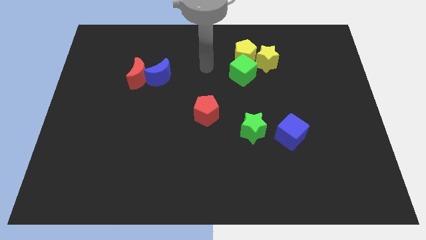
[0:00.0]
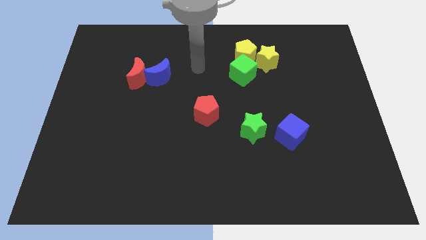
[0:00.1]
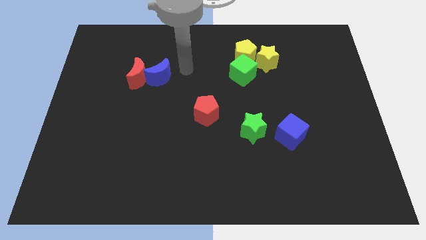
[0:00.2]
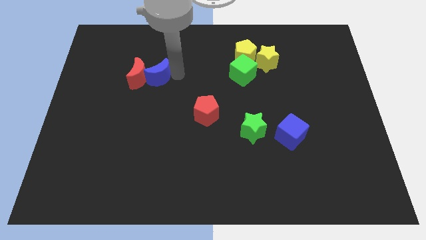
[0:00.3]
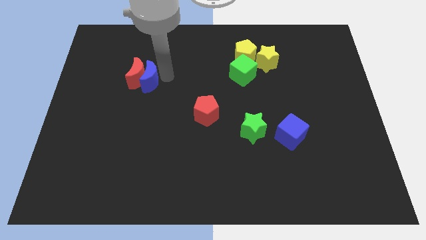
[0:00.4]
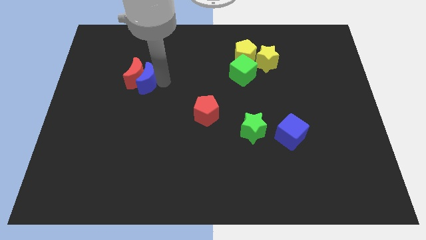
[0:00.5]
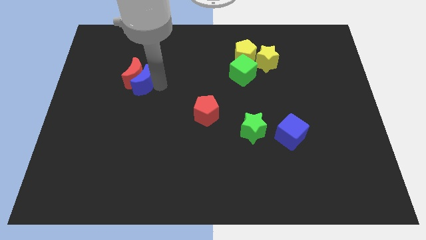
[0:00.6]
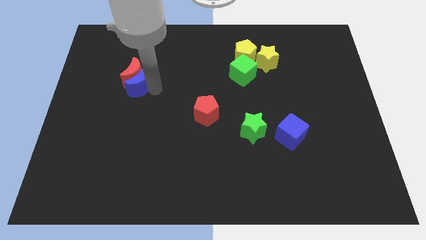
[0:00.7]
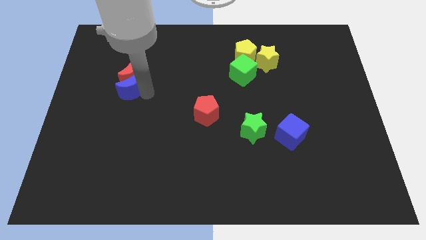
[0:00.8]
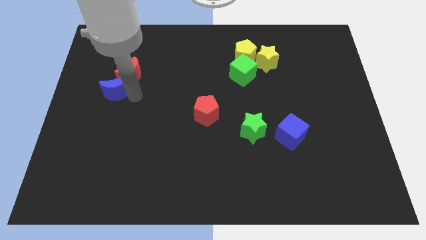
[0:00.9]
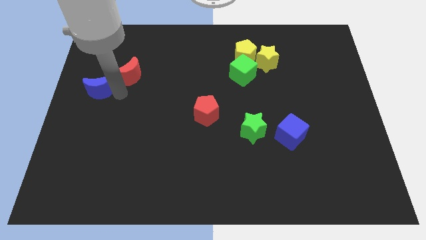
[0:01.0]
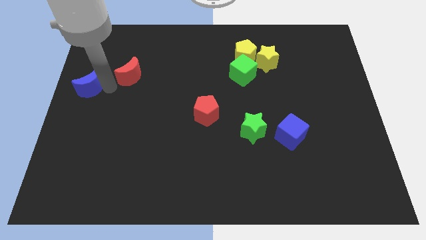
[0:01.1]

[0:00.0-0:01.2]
separate the red moon from the blue moon

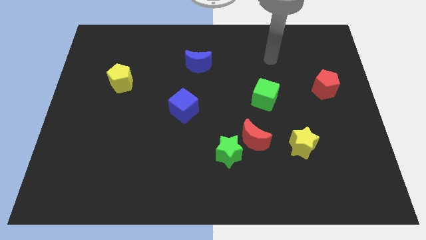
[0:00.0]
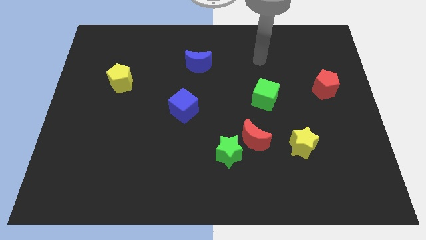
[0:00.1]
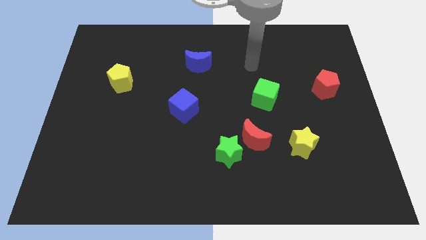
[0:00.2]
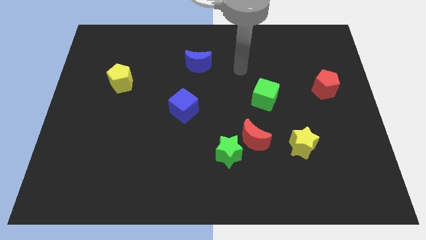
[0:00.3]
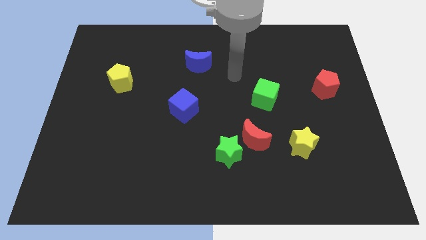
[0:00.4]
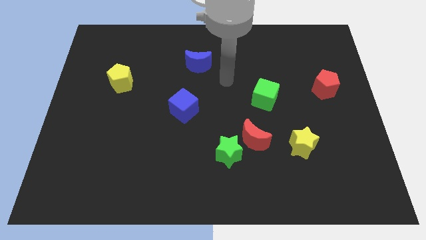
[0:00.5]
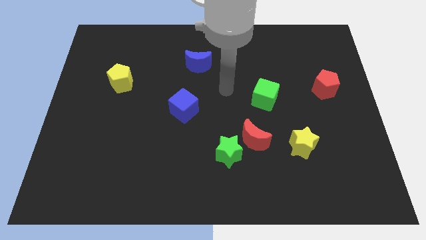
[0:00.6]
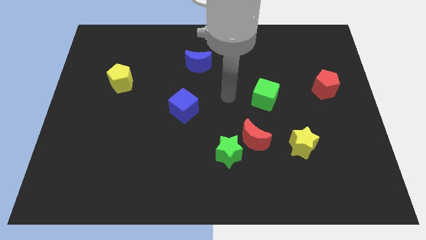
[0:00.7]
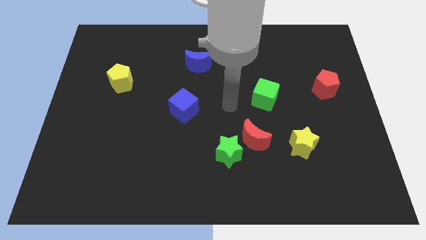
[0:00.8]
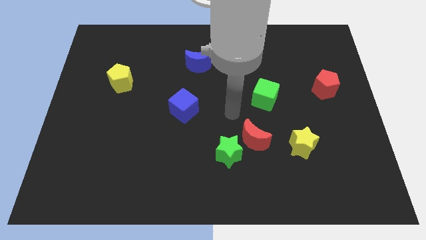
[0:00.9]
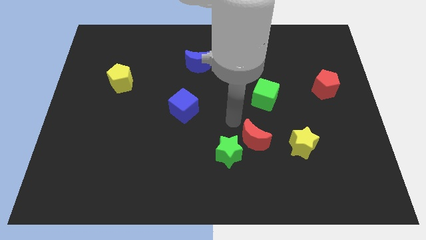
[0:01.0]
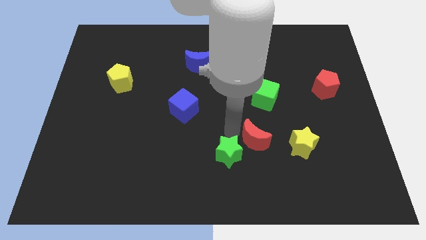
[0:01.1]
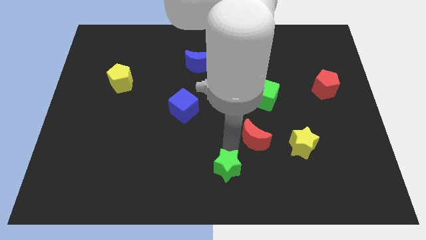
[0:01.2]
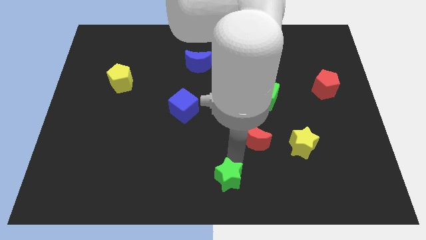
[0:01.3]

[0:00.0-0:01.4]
move the red moon away from the green star

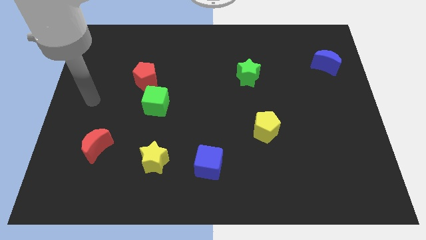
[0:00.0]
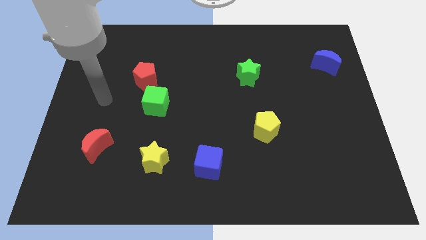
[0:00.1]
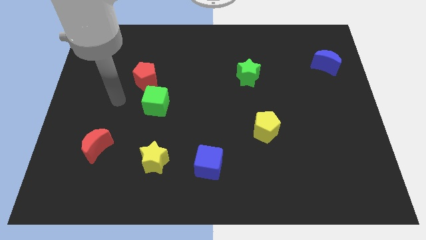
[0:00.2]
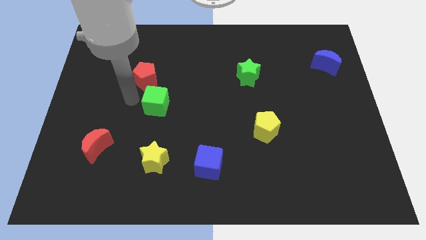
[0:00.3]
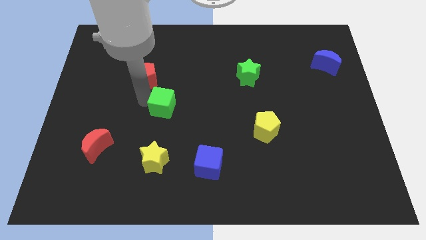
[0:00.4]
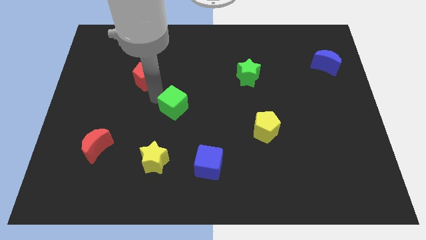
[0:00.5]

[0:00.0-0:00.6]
pull the red pentagon apart from the green cube

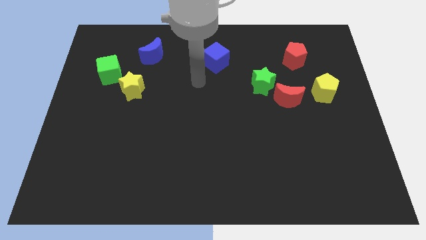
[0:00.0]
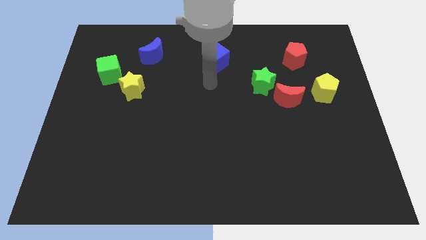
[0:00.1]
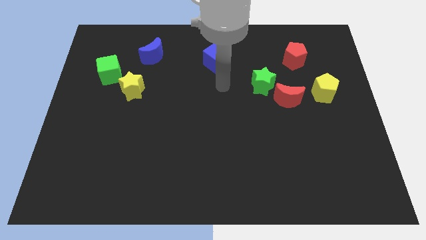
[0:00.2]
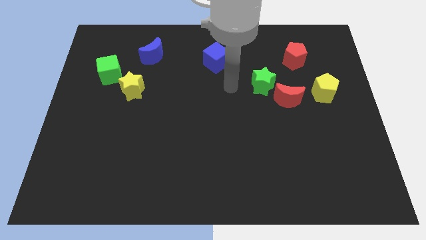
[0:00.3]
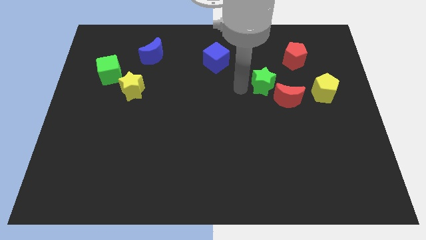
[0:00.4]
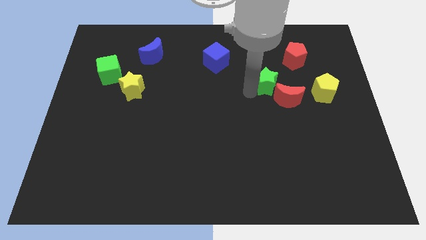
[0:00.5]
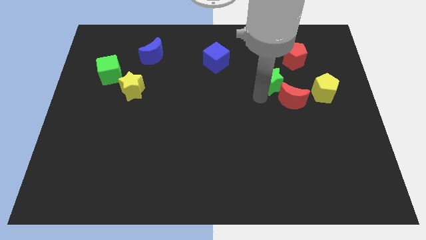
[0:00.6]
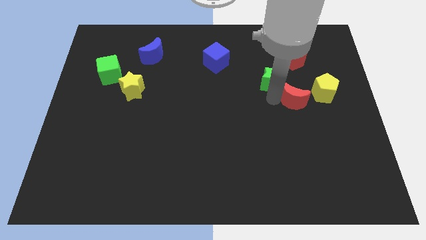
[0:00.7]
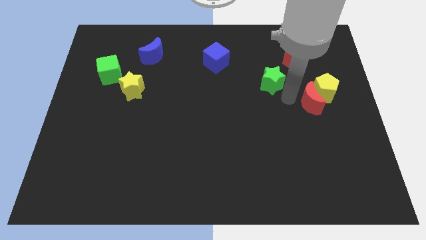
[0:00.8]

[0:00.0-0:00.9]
pull the green star apart from the red moon

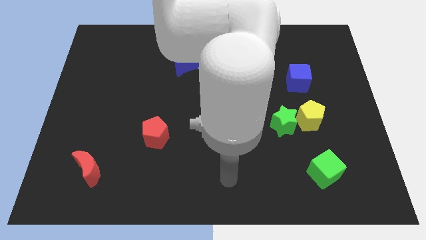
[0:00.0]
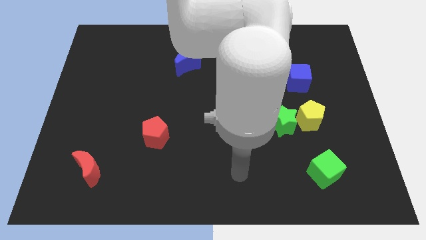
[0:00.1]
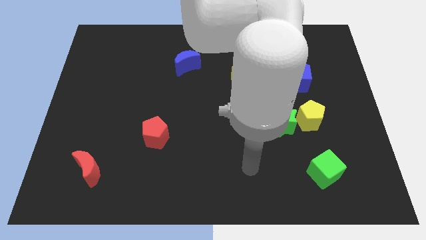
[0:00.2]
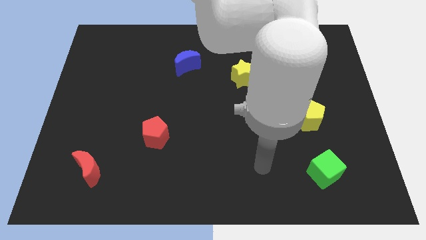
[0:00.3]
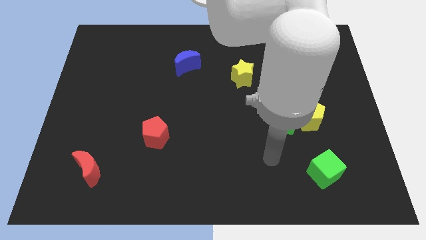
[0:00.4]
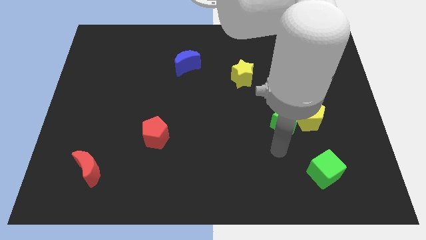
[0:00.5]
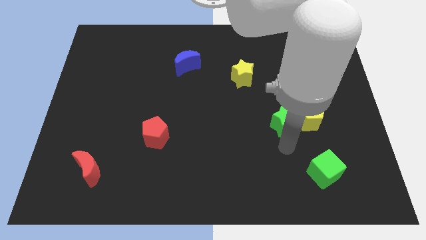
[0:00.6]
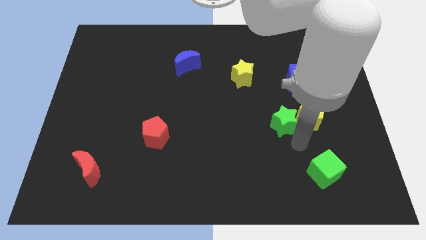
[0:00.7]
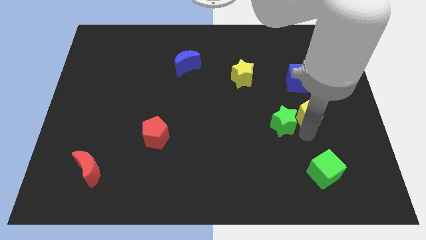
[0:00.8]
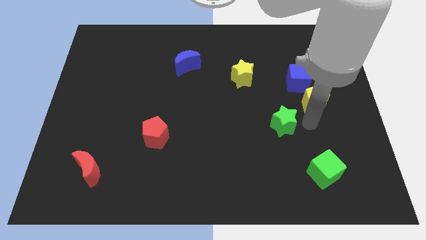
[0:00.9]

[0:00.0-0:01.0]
move the green star away from the yellow pentagon

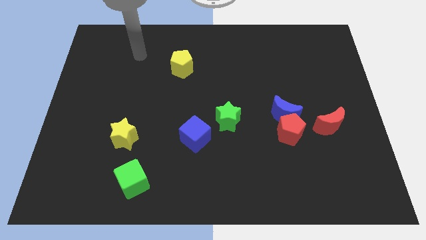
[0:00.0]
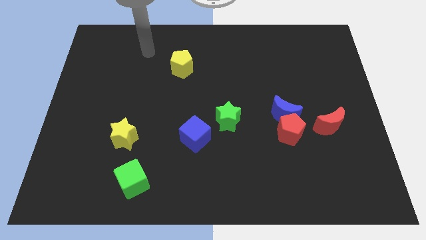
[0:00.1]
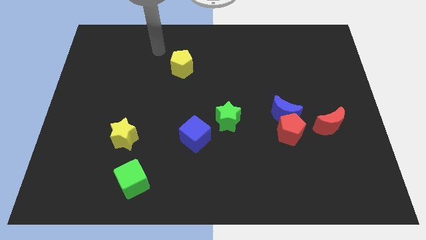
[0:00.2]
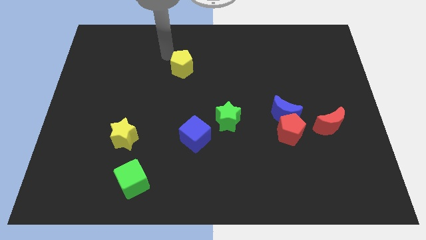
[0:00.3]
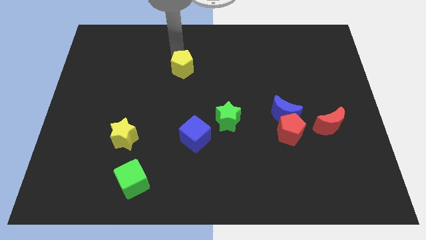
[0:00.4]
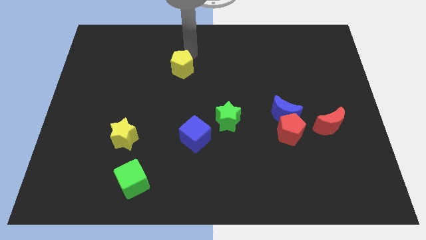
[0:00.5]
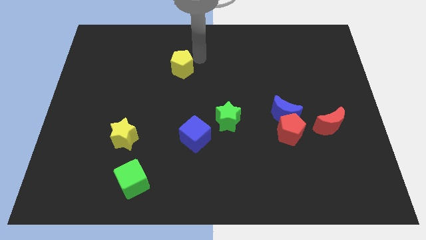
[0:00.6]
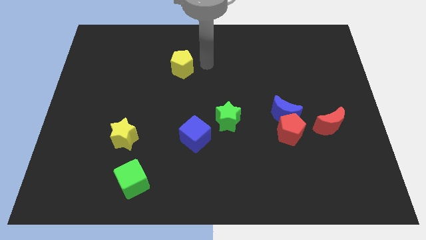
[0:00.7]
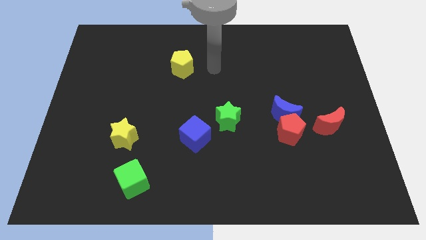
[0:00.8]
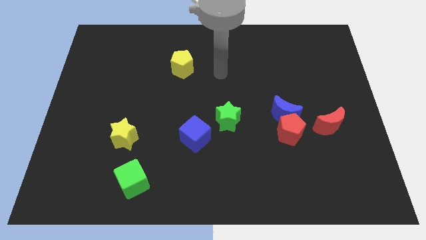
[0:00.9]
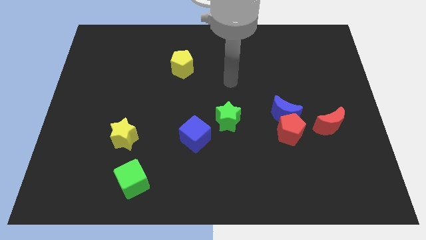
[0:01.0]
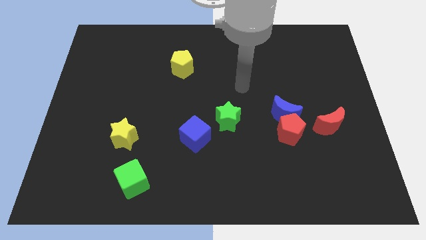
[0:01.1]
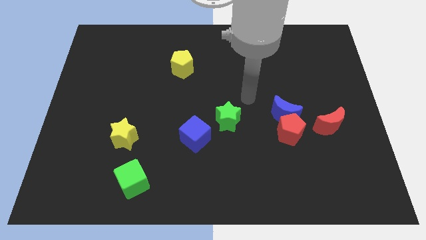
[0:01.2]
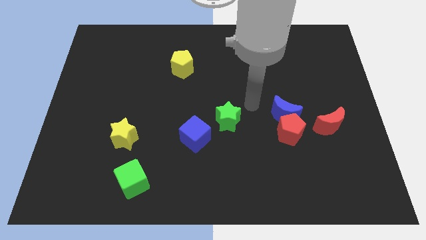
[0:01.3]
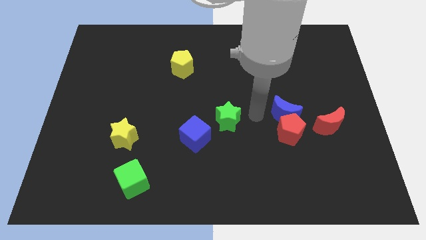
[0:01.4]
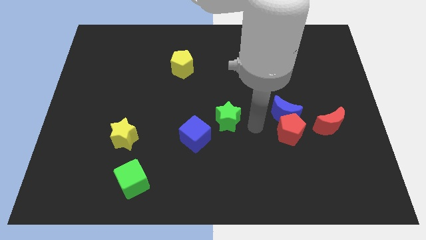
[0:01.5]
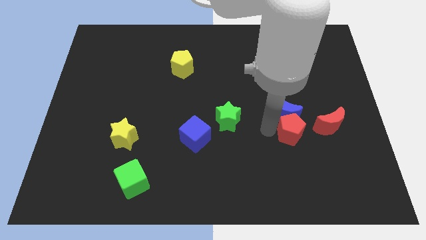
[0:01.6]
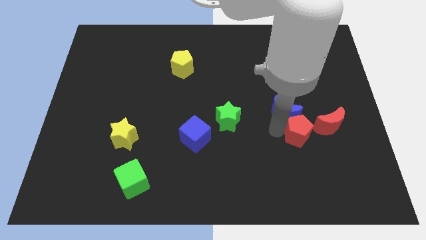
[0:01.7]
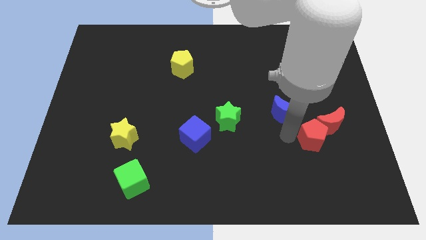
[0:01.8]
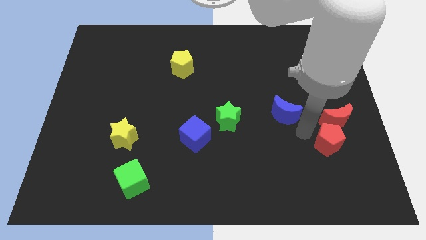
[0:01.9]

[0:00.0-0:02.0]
move the blue moon away from the red pentagon

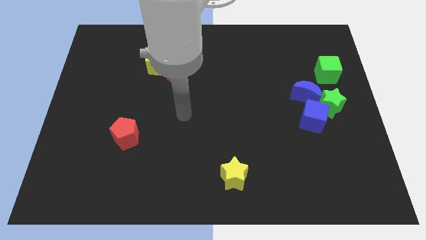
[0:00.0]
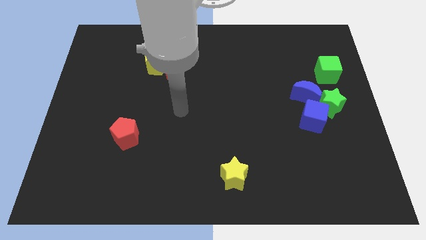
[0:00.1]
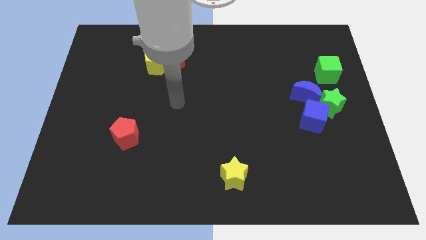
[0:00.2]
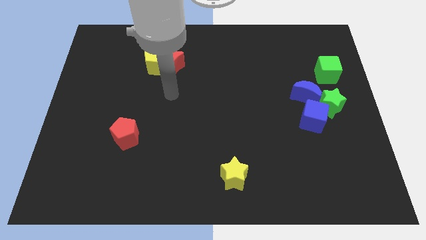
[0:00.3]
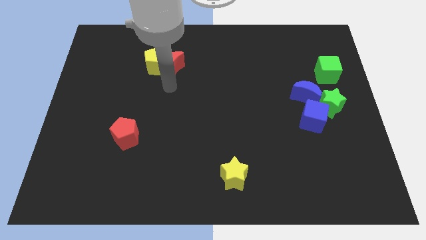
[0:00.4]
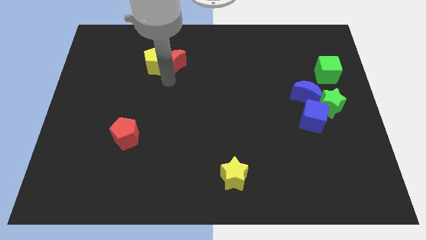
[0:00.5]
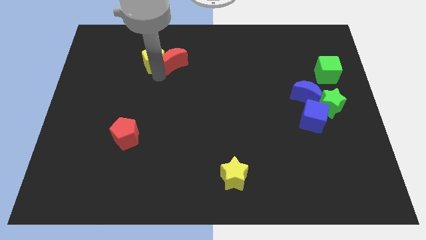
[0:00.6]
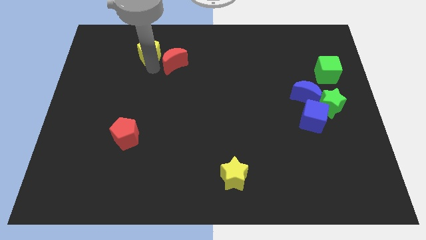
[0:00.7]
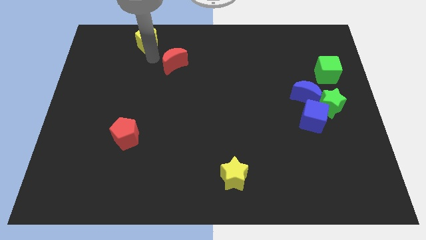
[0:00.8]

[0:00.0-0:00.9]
move the red moon away from the yellow pentagon

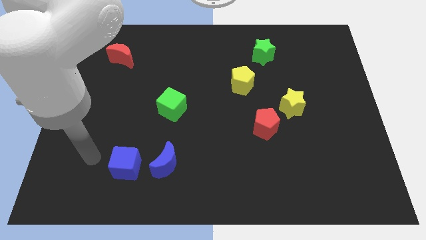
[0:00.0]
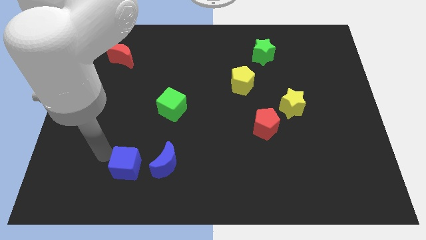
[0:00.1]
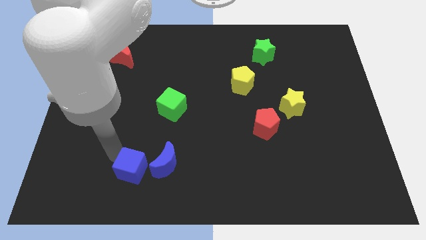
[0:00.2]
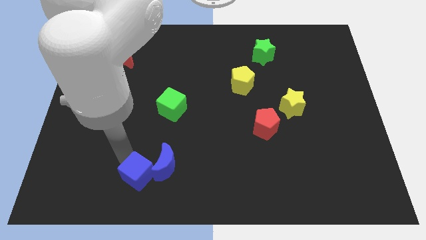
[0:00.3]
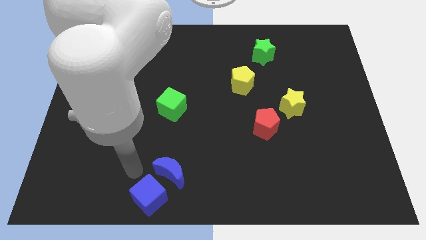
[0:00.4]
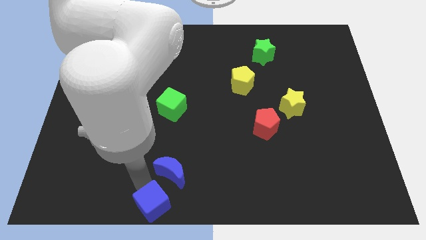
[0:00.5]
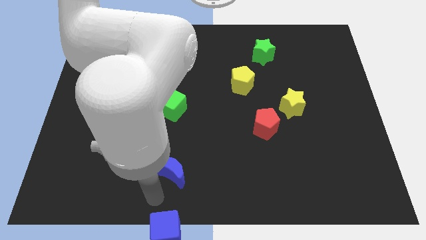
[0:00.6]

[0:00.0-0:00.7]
separate the blue moon from the blue cube

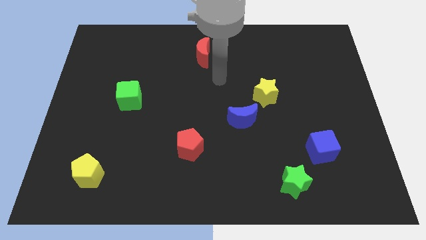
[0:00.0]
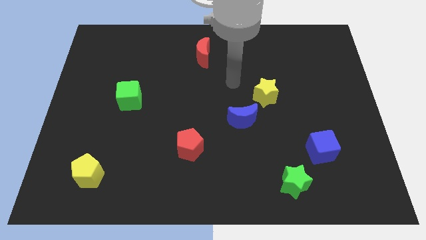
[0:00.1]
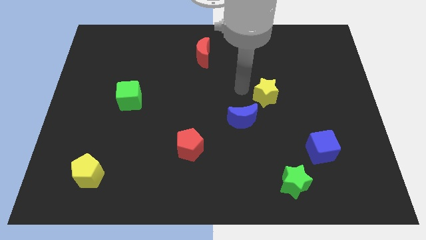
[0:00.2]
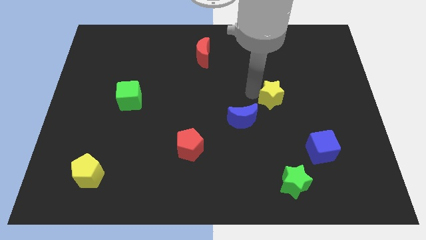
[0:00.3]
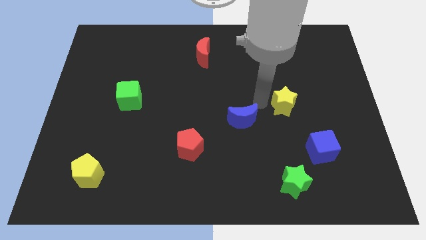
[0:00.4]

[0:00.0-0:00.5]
pull the blue moon apart from the yellow star

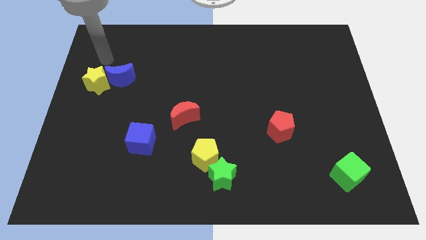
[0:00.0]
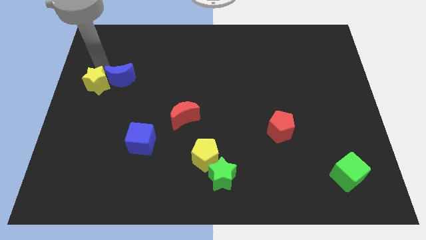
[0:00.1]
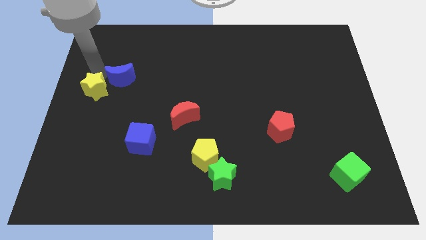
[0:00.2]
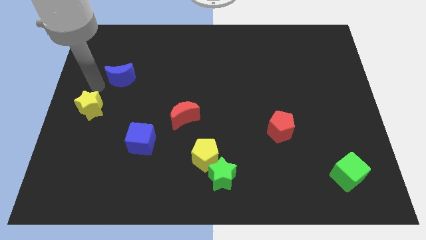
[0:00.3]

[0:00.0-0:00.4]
separate the blue moon from the yellow star
